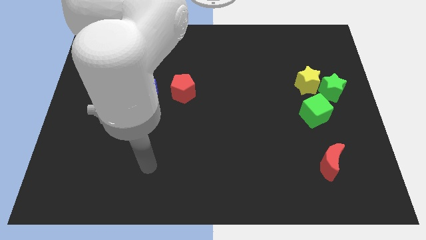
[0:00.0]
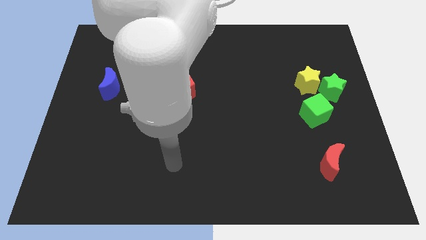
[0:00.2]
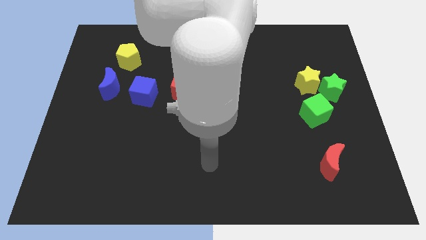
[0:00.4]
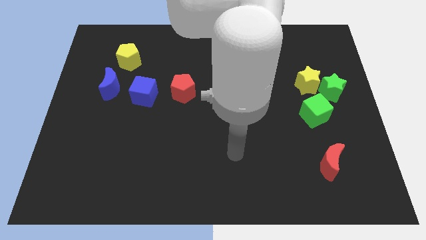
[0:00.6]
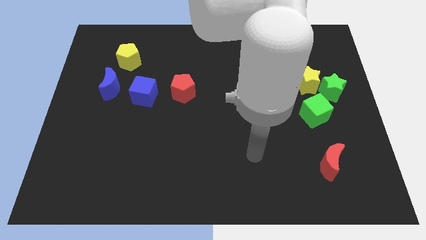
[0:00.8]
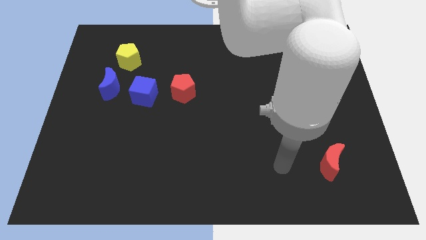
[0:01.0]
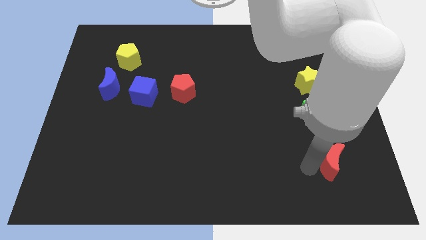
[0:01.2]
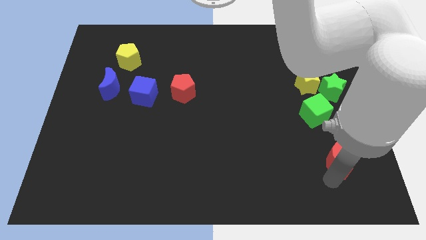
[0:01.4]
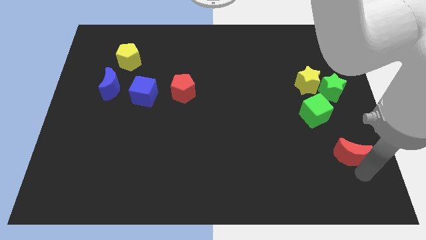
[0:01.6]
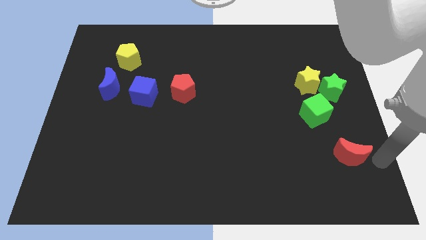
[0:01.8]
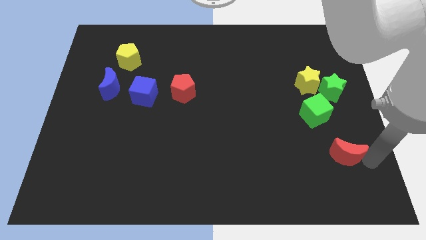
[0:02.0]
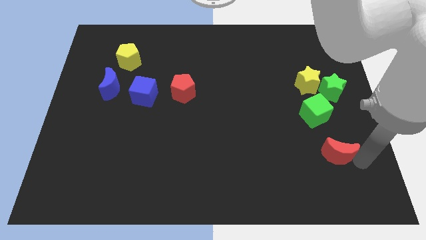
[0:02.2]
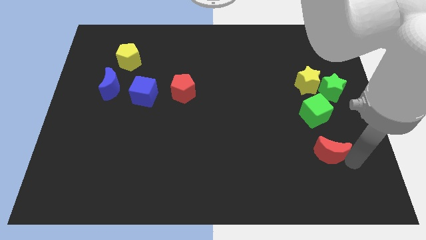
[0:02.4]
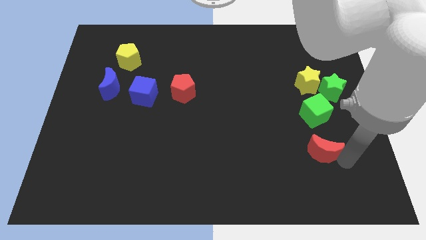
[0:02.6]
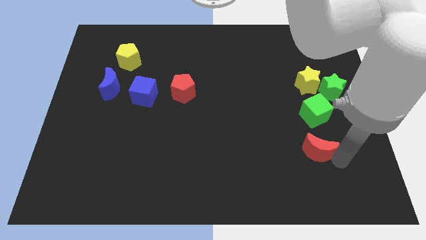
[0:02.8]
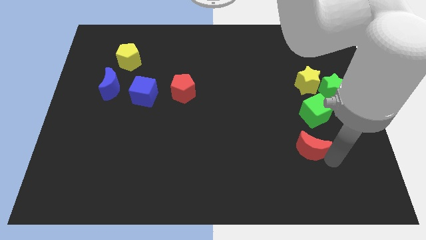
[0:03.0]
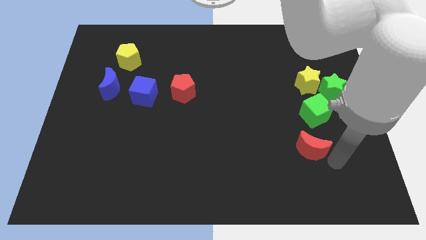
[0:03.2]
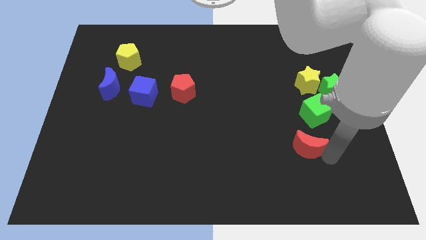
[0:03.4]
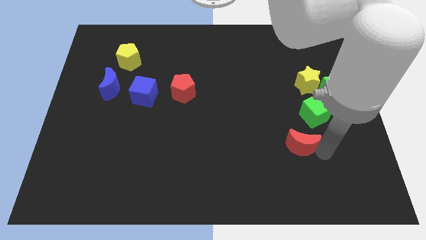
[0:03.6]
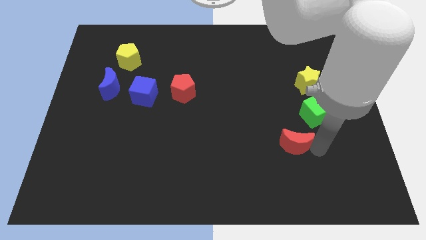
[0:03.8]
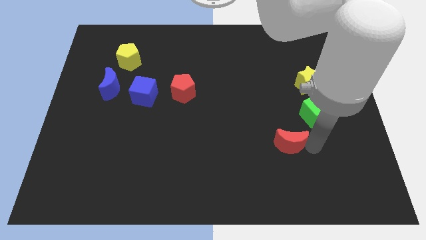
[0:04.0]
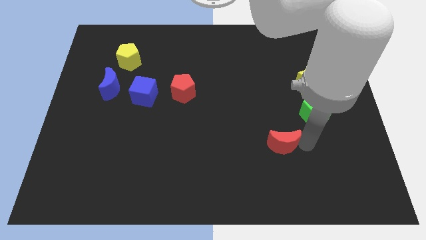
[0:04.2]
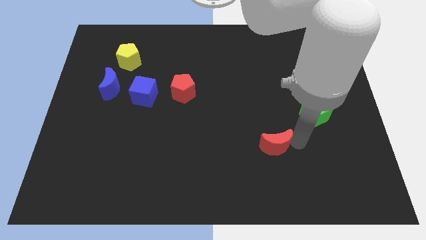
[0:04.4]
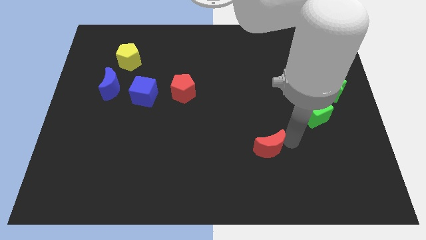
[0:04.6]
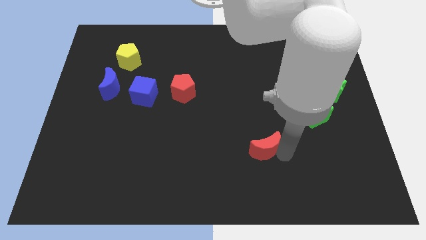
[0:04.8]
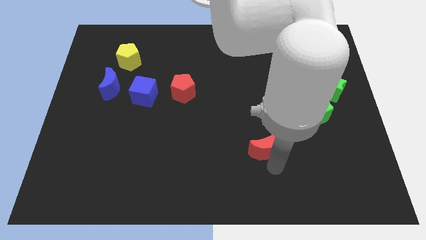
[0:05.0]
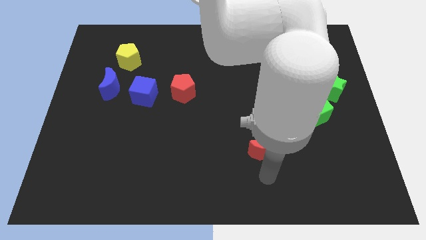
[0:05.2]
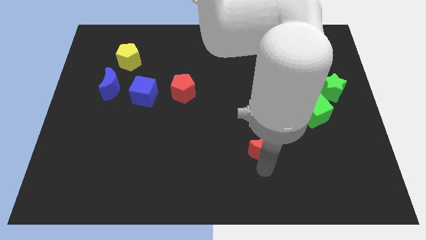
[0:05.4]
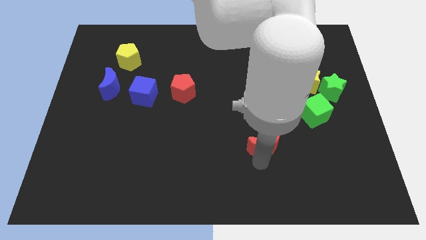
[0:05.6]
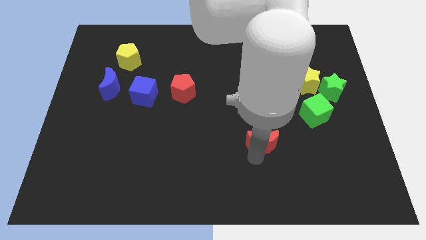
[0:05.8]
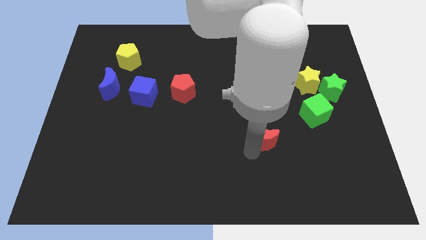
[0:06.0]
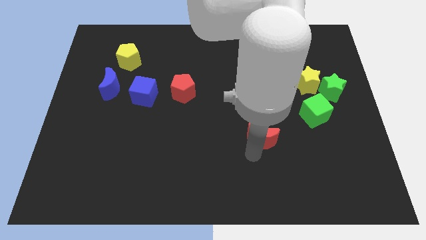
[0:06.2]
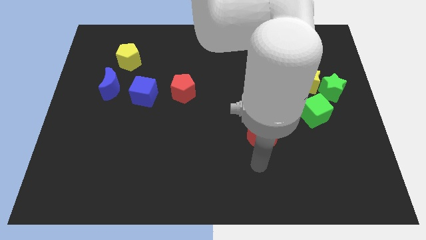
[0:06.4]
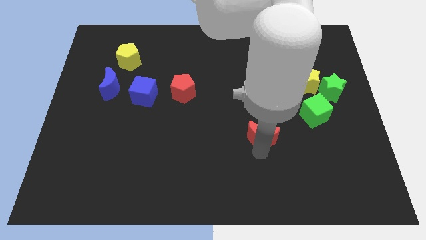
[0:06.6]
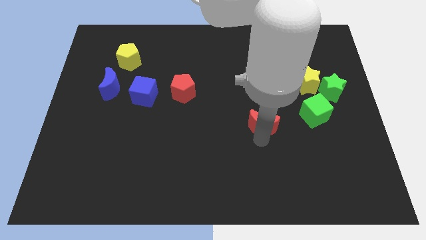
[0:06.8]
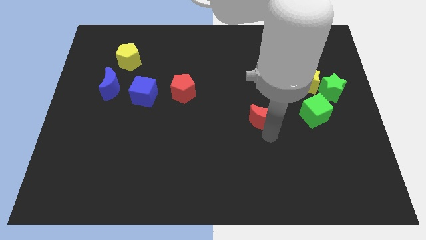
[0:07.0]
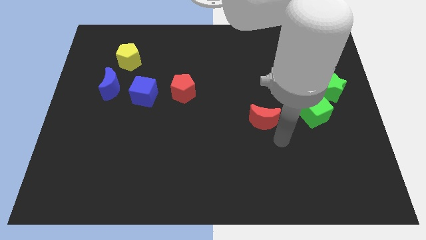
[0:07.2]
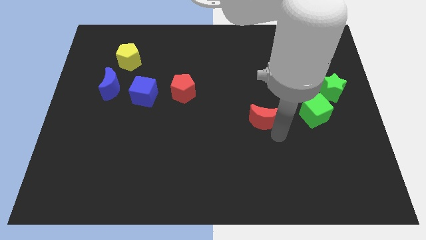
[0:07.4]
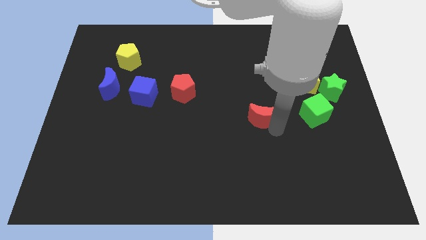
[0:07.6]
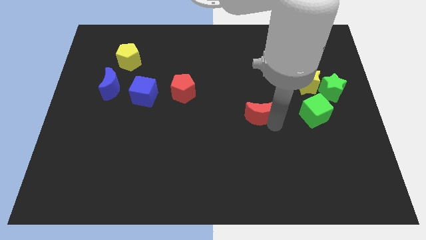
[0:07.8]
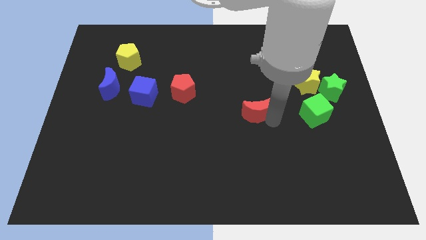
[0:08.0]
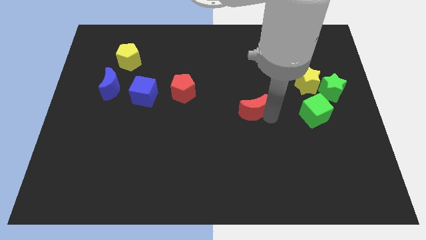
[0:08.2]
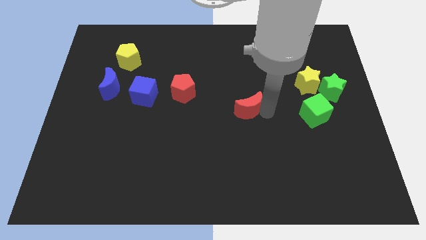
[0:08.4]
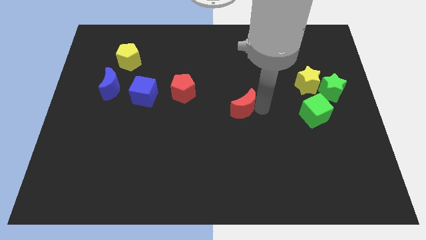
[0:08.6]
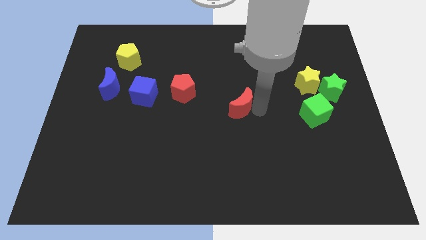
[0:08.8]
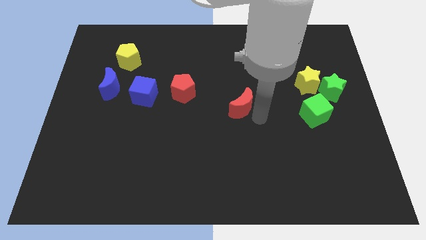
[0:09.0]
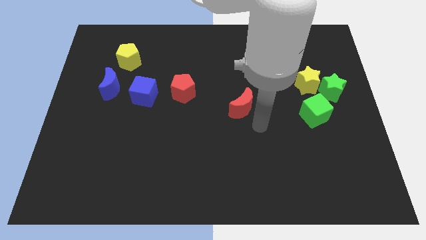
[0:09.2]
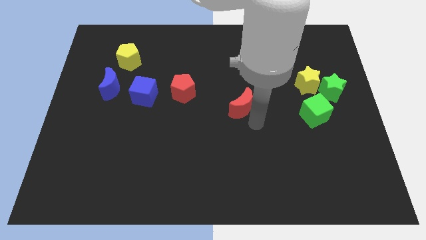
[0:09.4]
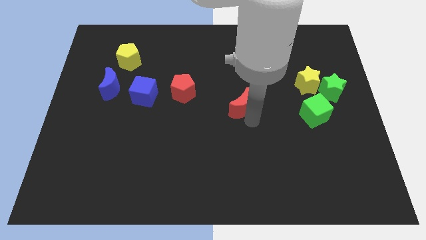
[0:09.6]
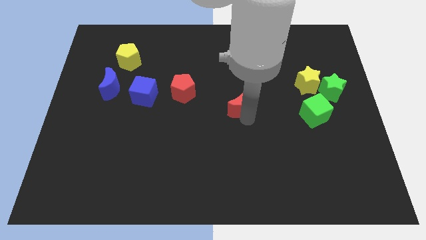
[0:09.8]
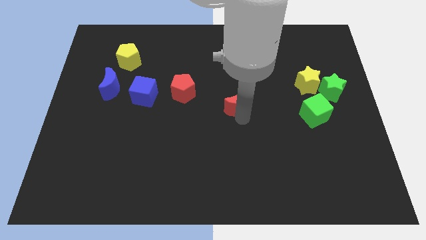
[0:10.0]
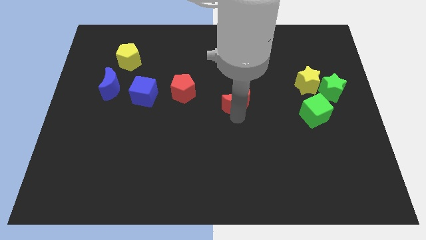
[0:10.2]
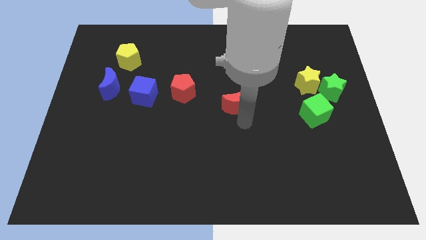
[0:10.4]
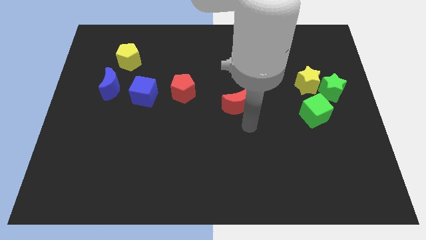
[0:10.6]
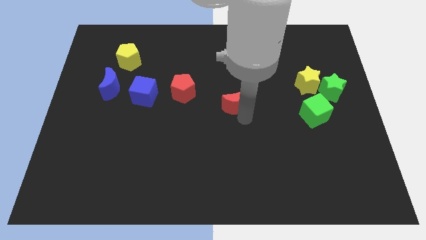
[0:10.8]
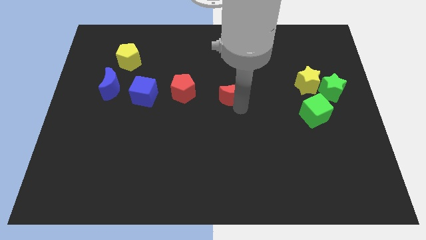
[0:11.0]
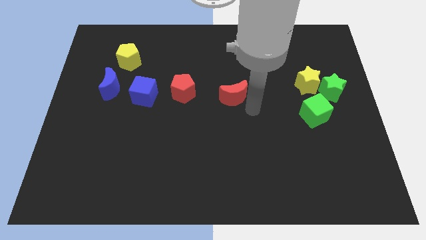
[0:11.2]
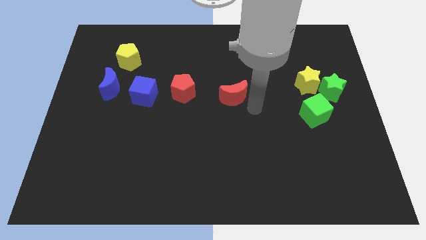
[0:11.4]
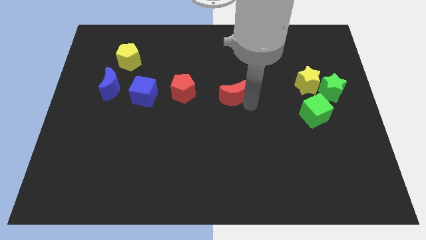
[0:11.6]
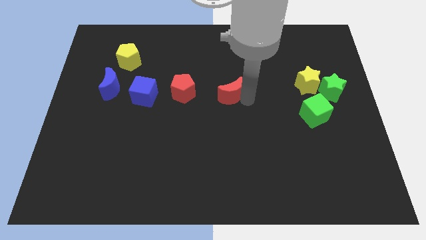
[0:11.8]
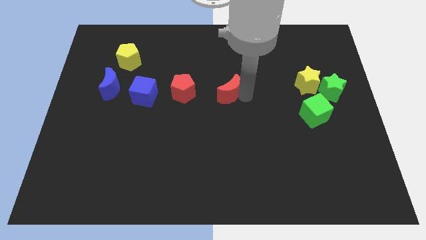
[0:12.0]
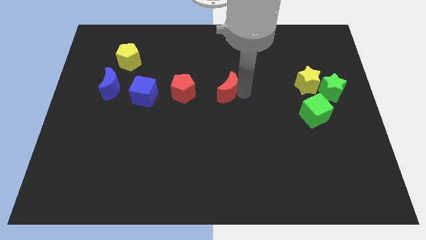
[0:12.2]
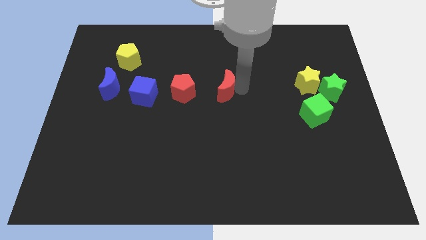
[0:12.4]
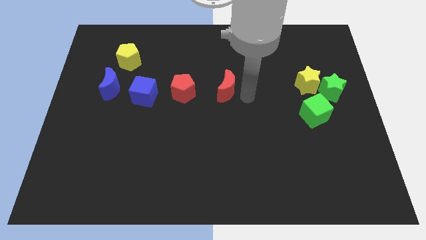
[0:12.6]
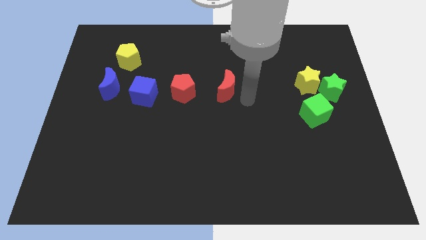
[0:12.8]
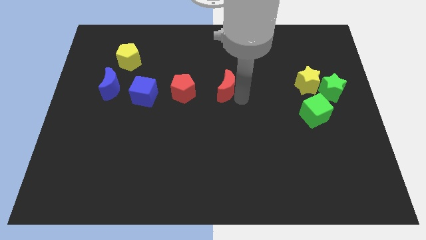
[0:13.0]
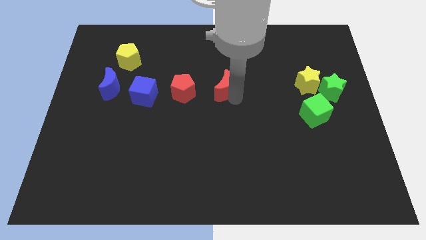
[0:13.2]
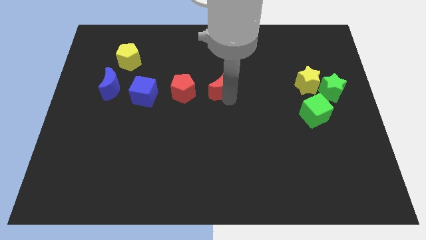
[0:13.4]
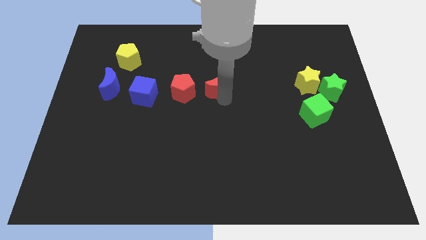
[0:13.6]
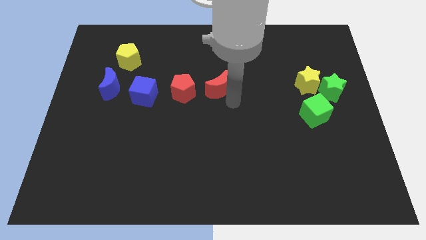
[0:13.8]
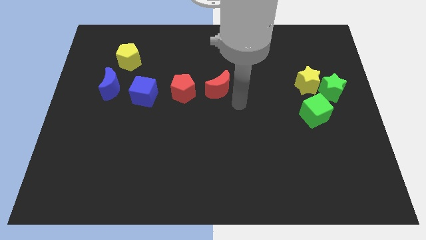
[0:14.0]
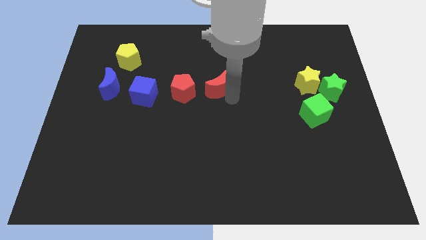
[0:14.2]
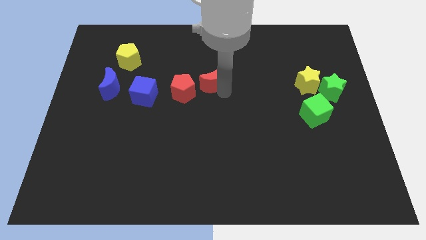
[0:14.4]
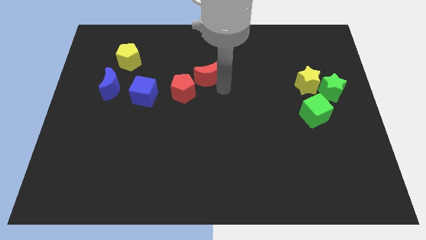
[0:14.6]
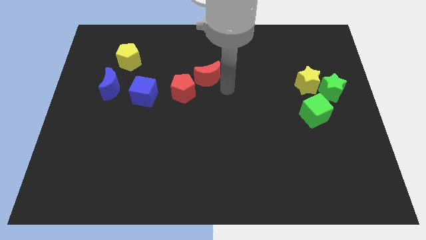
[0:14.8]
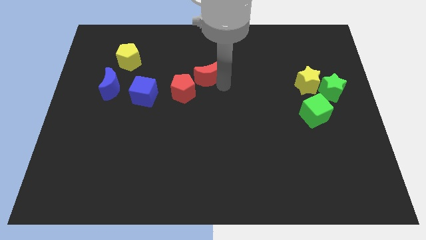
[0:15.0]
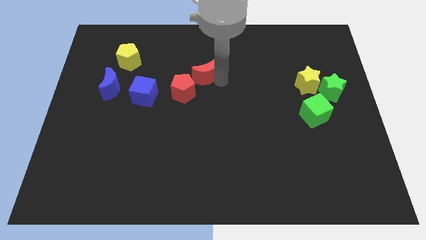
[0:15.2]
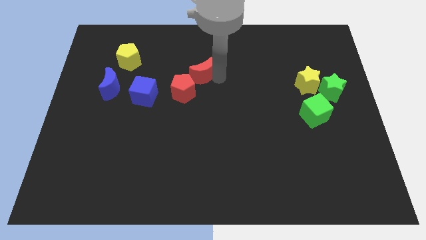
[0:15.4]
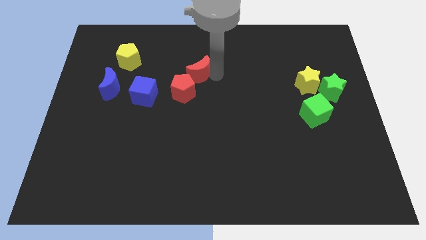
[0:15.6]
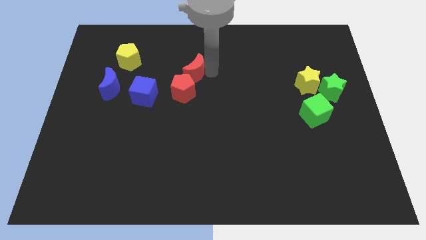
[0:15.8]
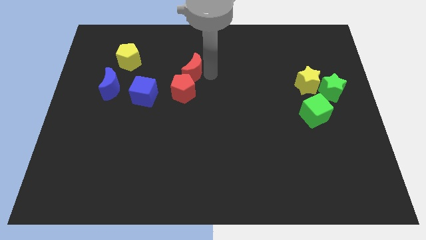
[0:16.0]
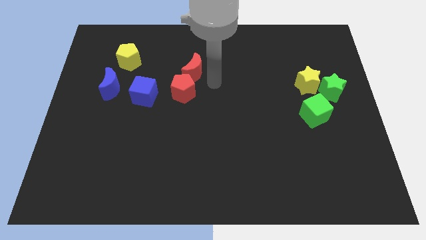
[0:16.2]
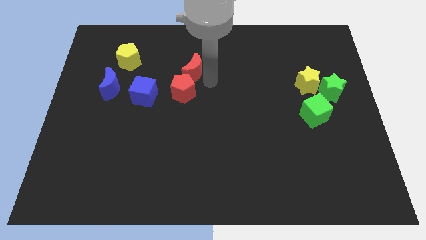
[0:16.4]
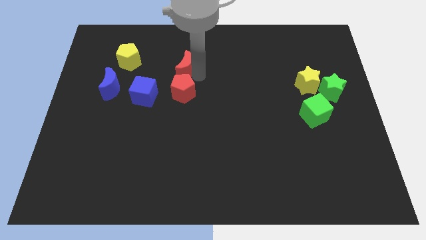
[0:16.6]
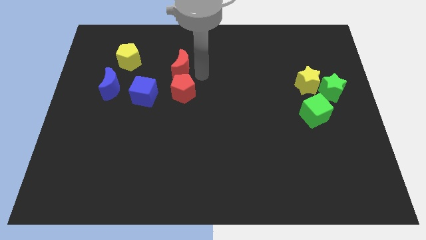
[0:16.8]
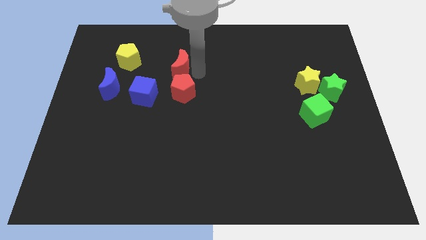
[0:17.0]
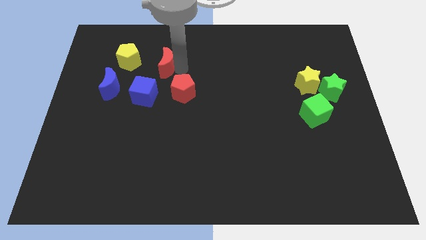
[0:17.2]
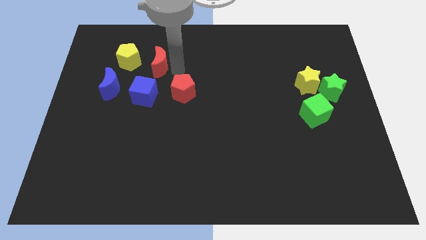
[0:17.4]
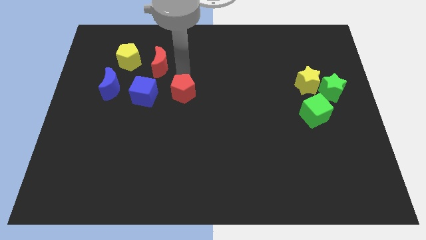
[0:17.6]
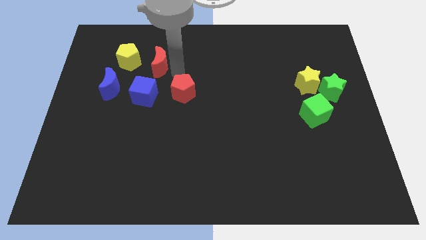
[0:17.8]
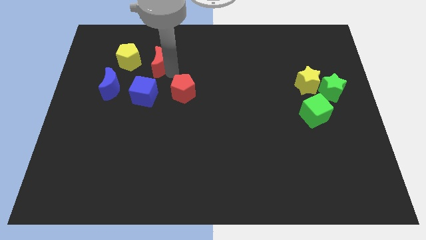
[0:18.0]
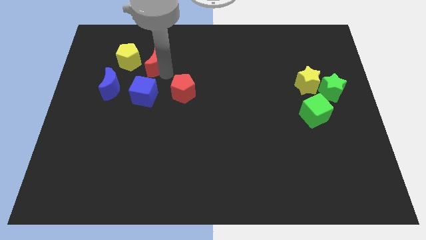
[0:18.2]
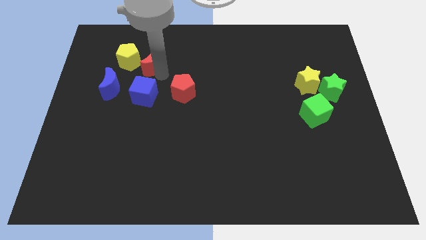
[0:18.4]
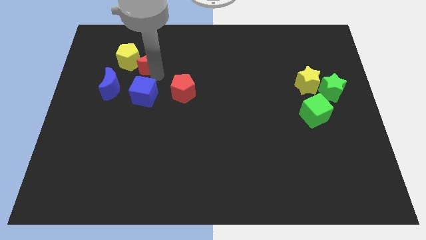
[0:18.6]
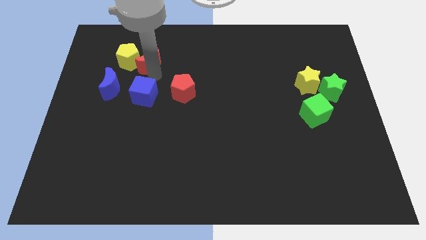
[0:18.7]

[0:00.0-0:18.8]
move the red moon next to the yellow pentagon
